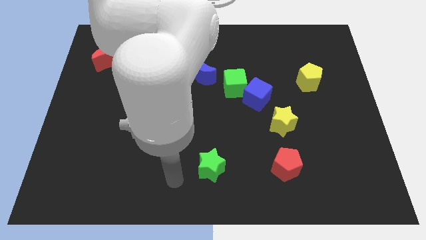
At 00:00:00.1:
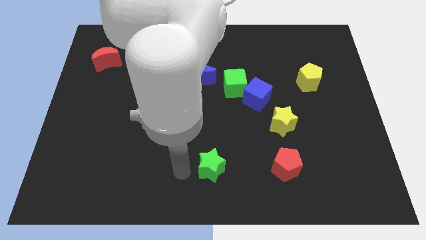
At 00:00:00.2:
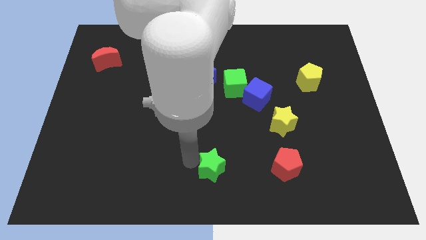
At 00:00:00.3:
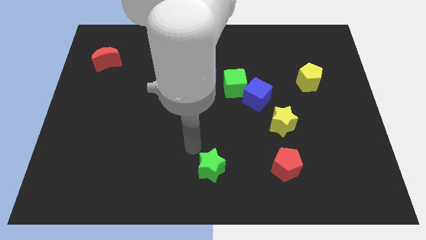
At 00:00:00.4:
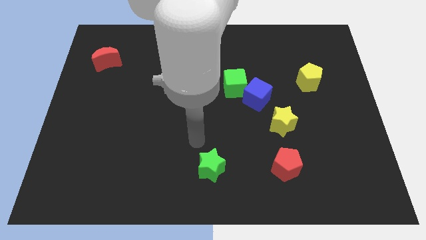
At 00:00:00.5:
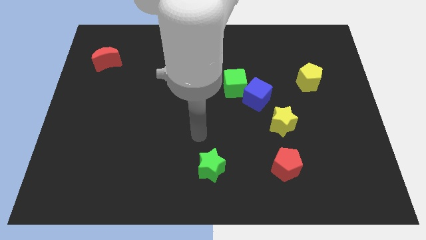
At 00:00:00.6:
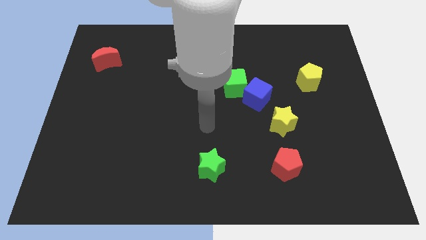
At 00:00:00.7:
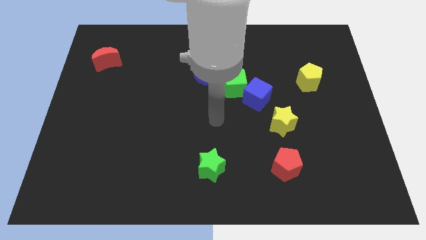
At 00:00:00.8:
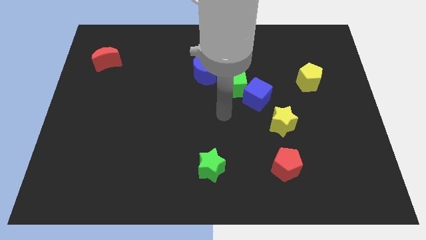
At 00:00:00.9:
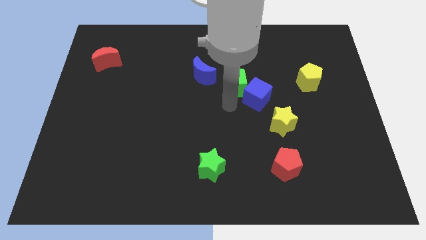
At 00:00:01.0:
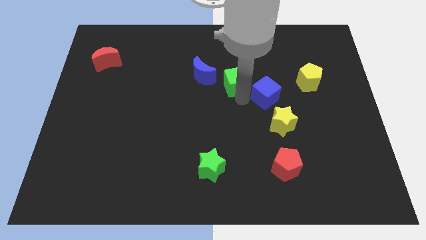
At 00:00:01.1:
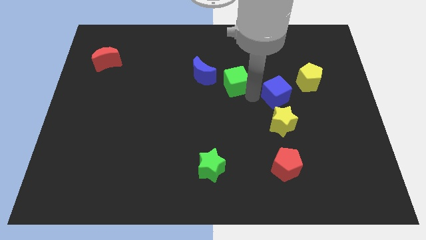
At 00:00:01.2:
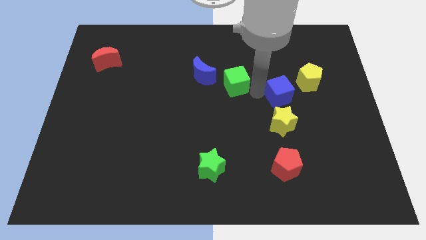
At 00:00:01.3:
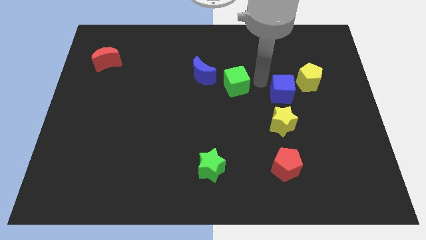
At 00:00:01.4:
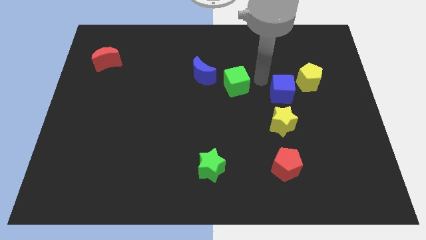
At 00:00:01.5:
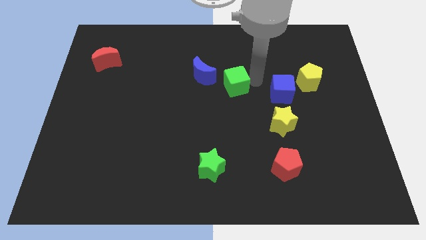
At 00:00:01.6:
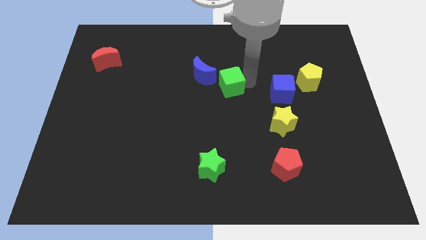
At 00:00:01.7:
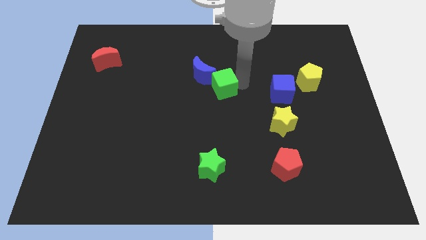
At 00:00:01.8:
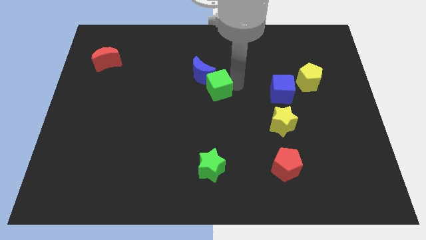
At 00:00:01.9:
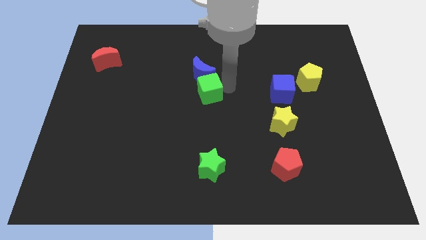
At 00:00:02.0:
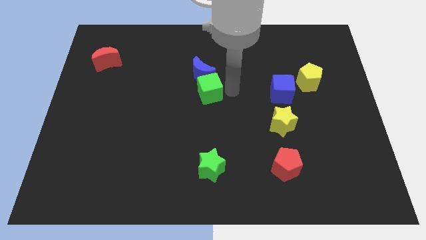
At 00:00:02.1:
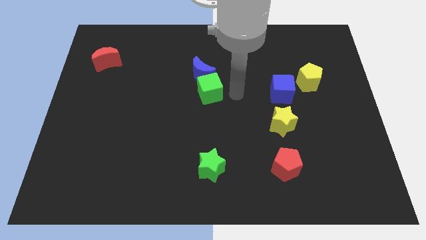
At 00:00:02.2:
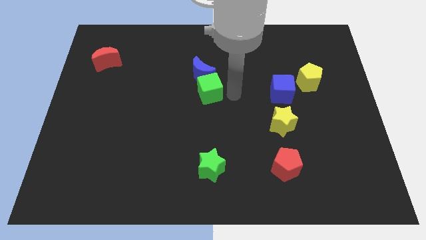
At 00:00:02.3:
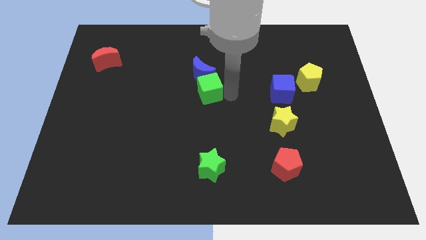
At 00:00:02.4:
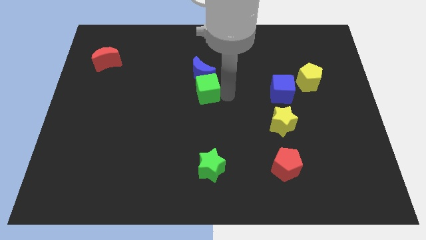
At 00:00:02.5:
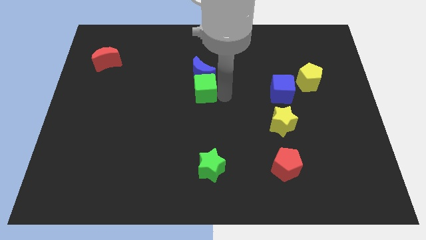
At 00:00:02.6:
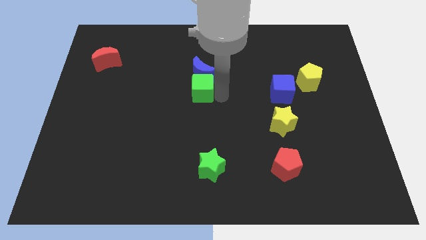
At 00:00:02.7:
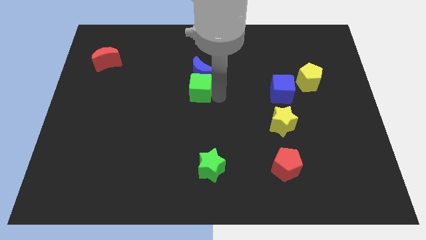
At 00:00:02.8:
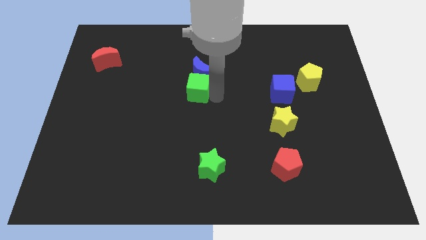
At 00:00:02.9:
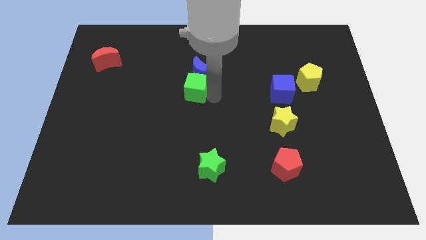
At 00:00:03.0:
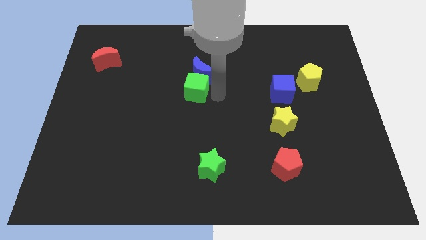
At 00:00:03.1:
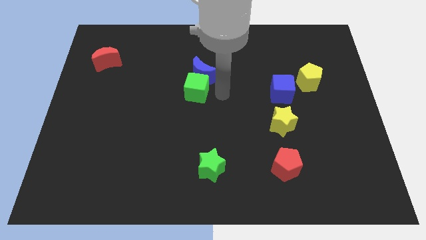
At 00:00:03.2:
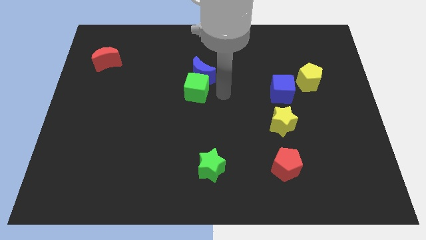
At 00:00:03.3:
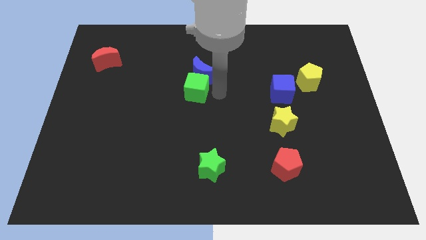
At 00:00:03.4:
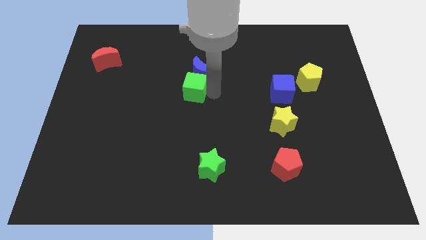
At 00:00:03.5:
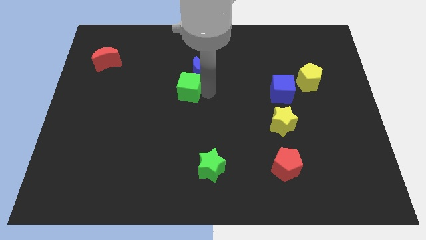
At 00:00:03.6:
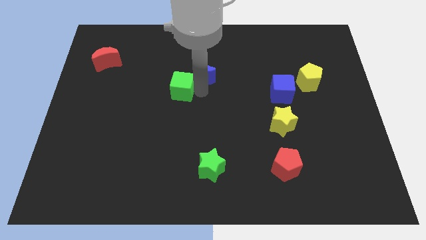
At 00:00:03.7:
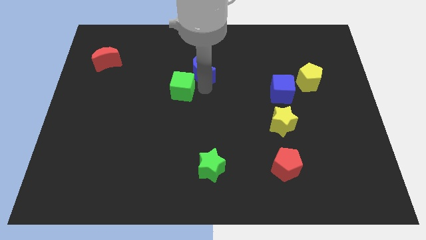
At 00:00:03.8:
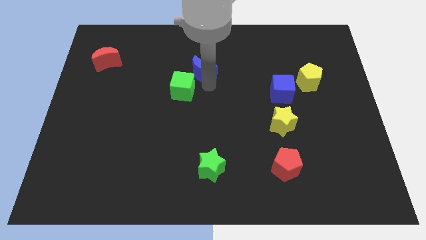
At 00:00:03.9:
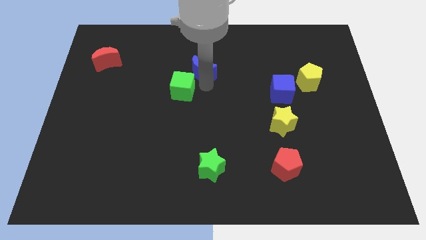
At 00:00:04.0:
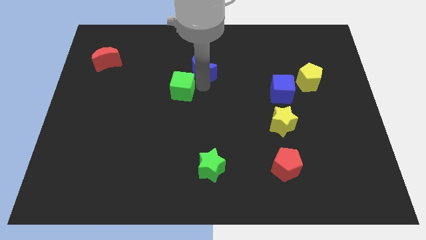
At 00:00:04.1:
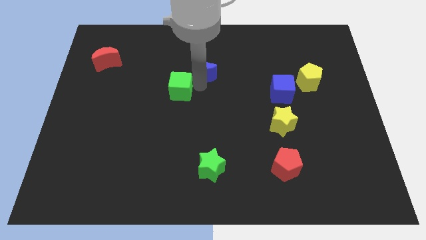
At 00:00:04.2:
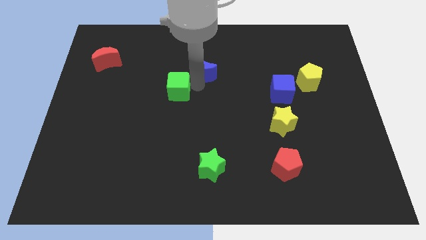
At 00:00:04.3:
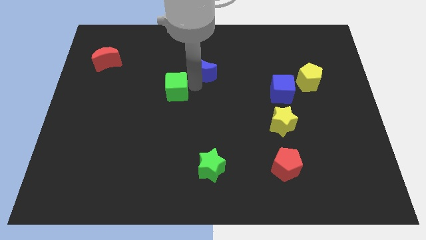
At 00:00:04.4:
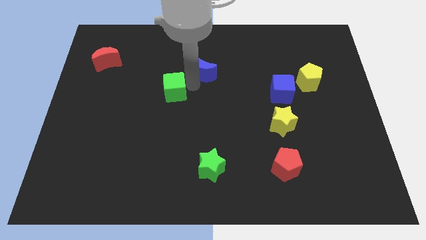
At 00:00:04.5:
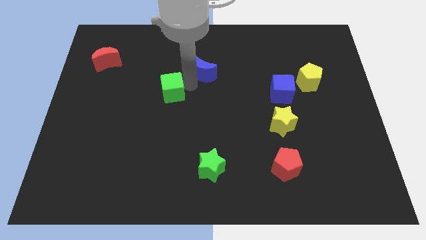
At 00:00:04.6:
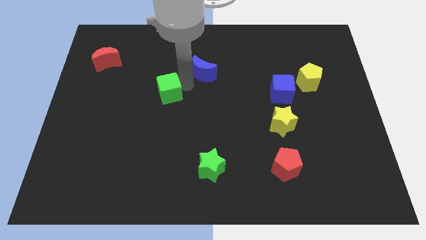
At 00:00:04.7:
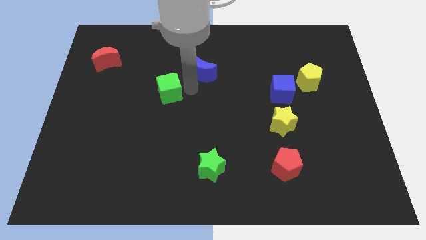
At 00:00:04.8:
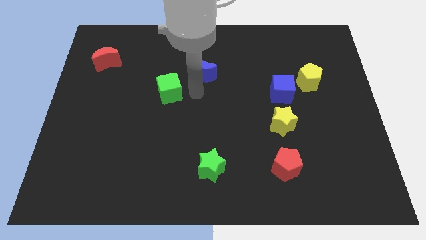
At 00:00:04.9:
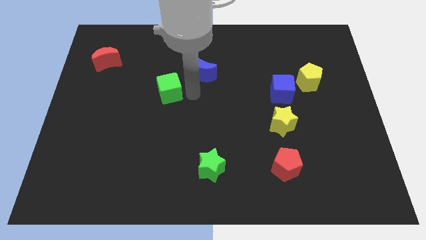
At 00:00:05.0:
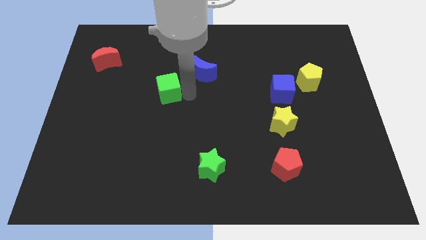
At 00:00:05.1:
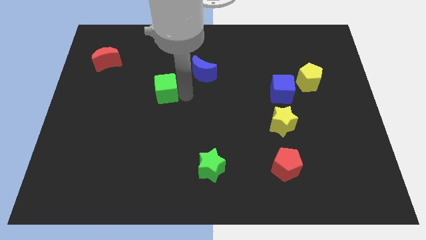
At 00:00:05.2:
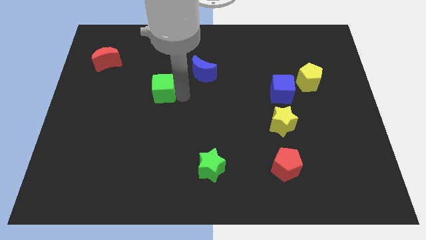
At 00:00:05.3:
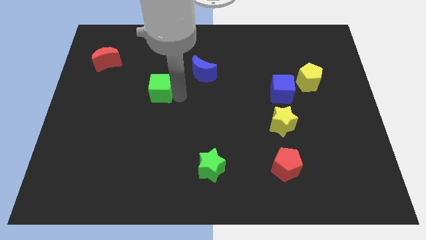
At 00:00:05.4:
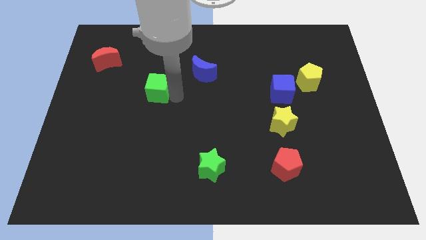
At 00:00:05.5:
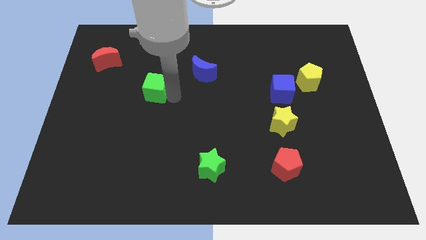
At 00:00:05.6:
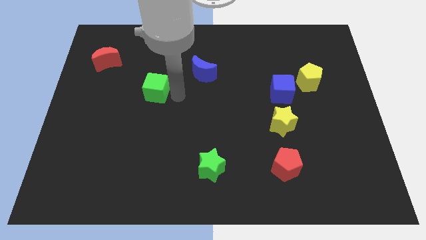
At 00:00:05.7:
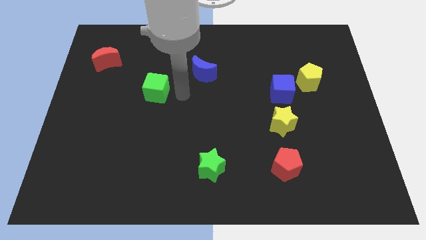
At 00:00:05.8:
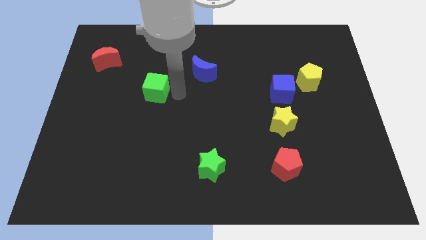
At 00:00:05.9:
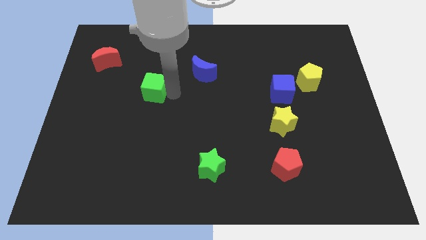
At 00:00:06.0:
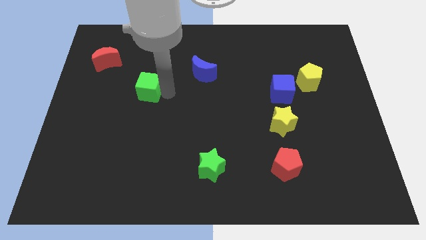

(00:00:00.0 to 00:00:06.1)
slide the green cube left

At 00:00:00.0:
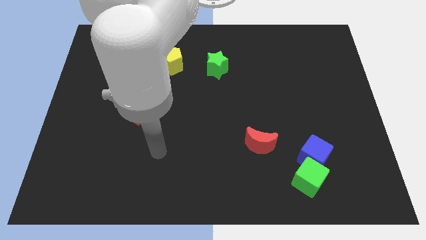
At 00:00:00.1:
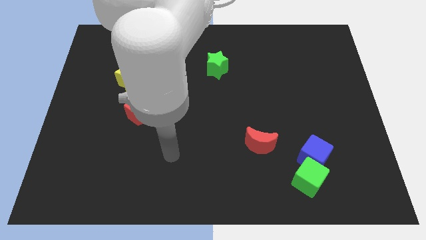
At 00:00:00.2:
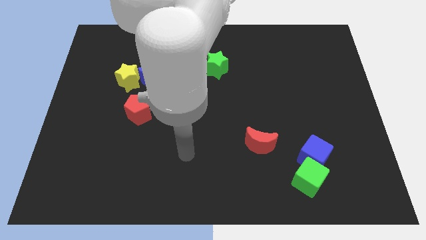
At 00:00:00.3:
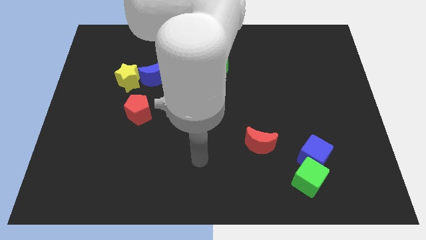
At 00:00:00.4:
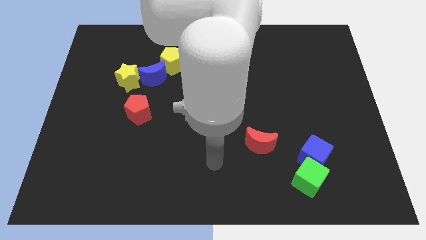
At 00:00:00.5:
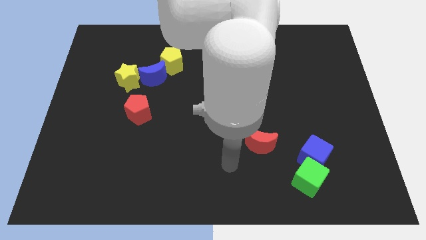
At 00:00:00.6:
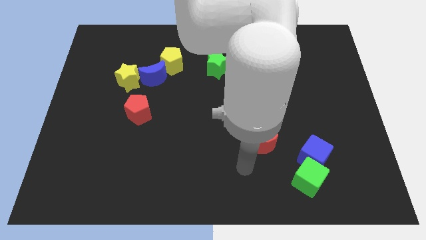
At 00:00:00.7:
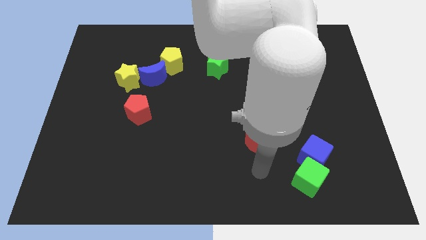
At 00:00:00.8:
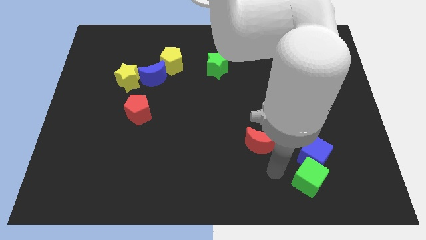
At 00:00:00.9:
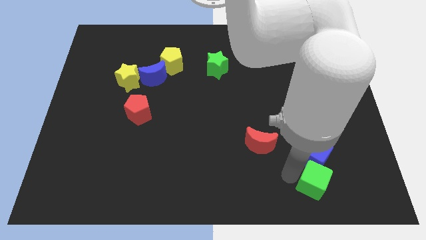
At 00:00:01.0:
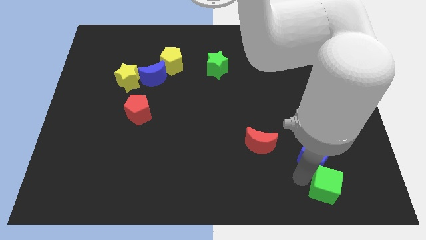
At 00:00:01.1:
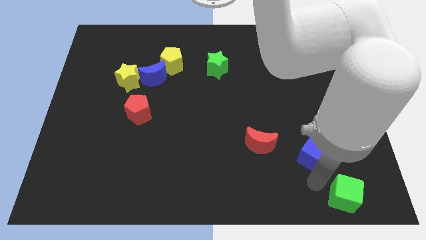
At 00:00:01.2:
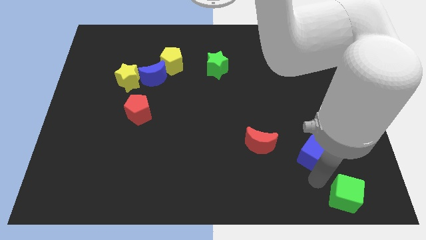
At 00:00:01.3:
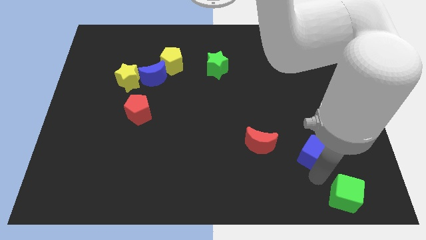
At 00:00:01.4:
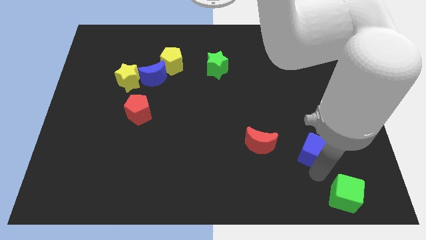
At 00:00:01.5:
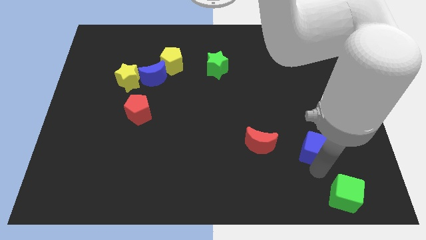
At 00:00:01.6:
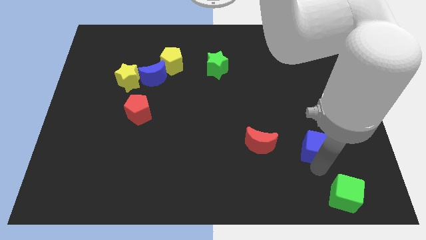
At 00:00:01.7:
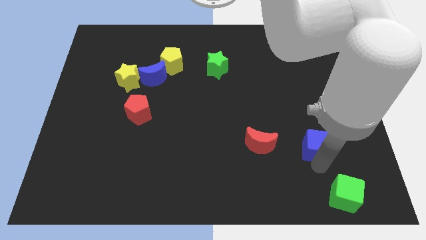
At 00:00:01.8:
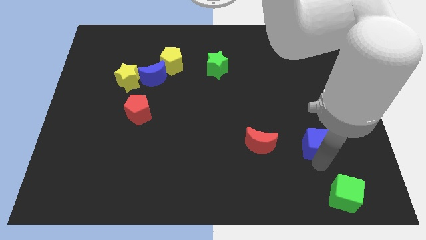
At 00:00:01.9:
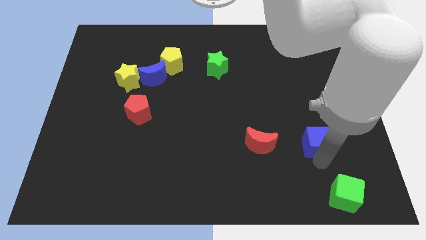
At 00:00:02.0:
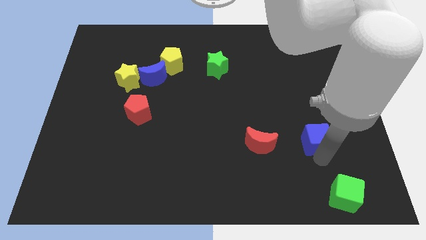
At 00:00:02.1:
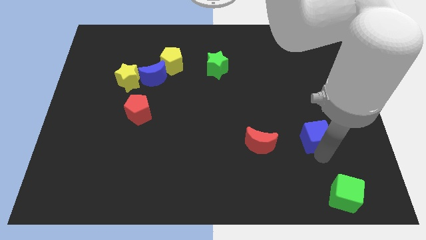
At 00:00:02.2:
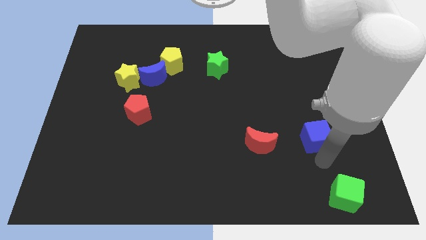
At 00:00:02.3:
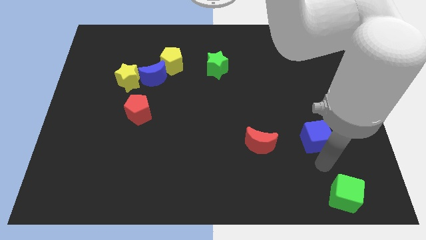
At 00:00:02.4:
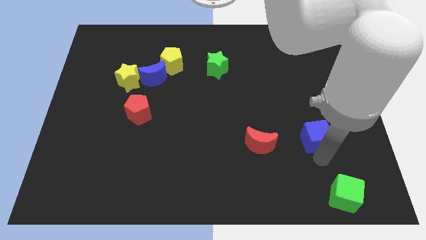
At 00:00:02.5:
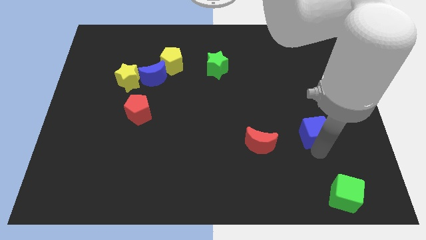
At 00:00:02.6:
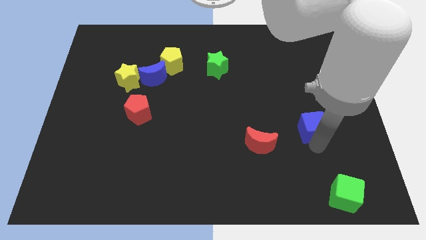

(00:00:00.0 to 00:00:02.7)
move the blue cube a little bit upwards
